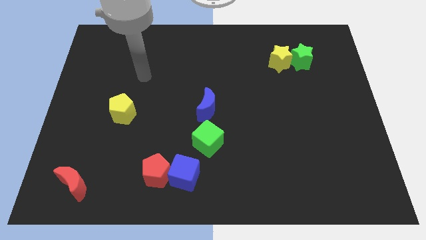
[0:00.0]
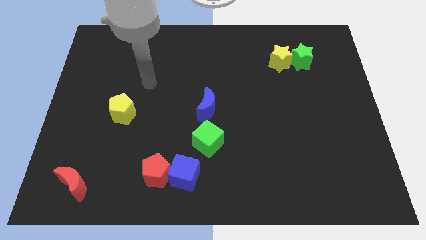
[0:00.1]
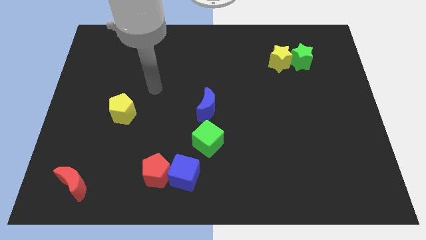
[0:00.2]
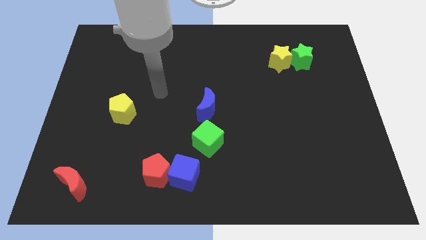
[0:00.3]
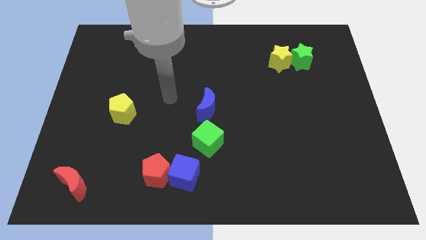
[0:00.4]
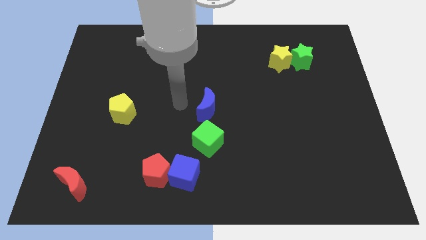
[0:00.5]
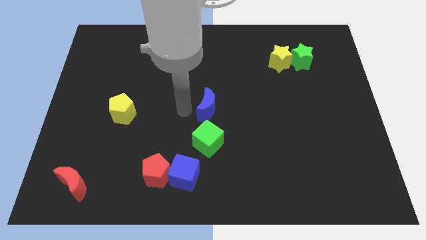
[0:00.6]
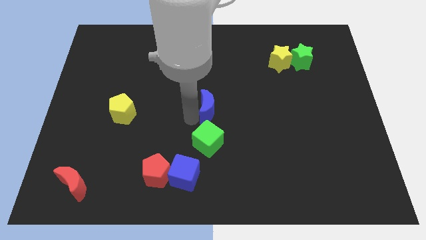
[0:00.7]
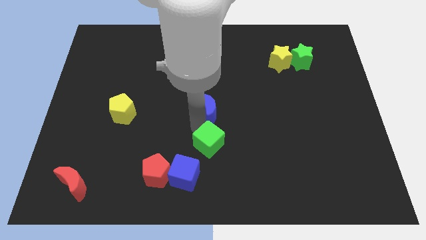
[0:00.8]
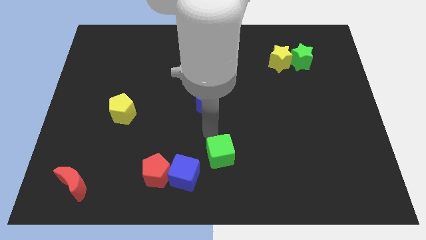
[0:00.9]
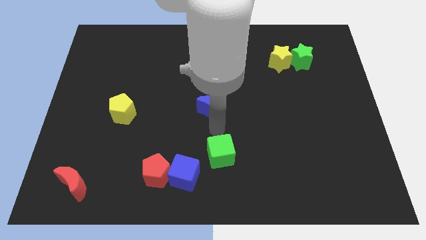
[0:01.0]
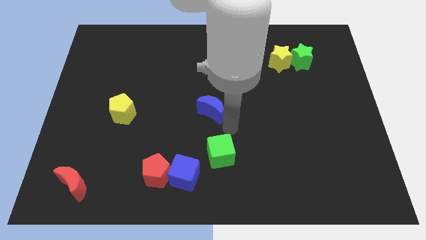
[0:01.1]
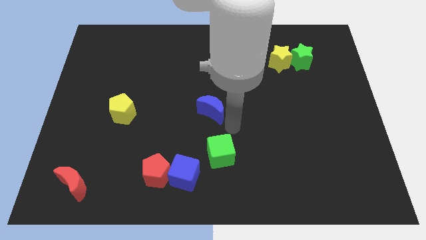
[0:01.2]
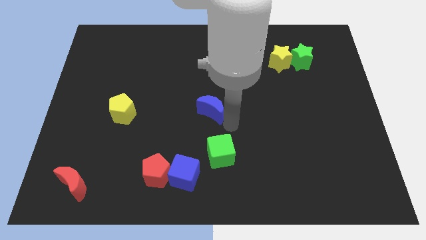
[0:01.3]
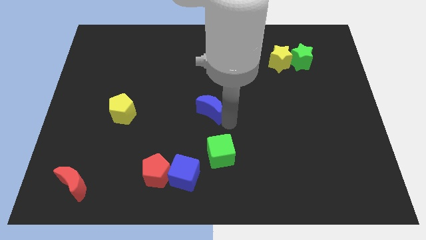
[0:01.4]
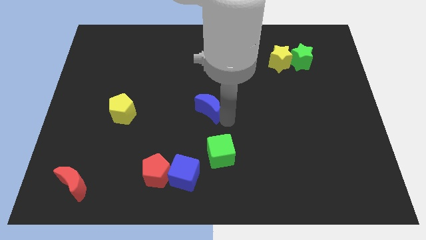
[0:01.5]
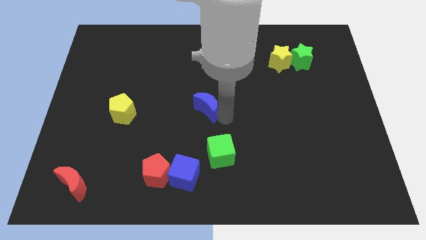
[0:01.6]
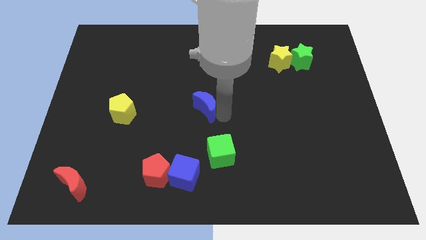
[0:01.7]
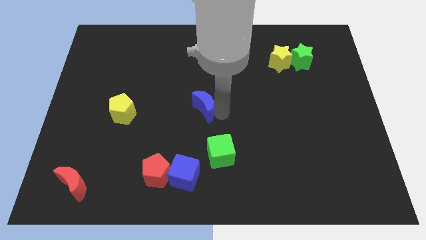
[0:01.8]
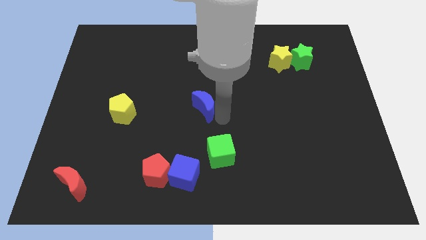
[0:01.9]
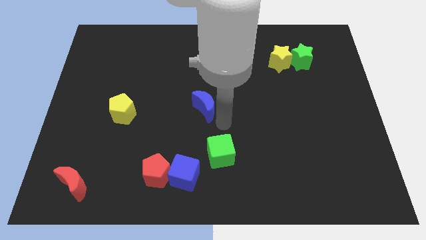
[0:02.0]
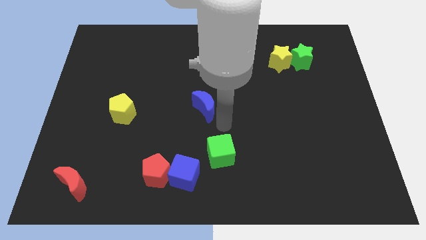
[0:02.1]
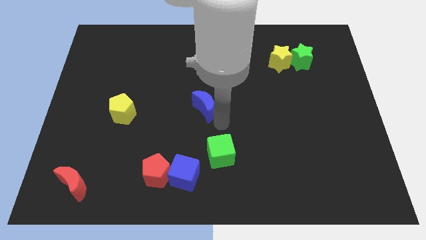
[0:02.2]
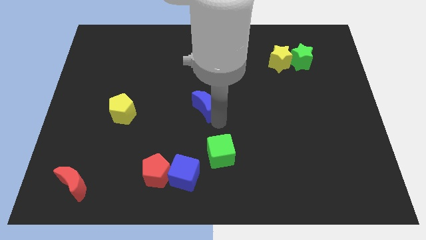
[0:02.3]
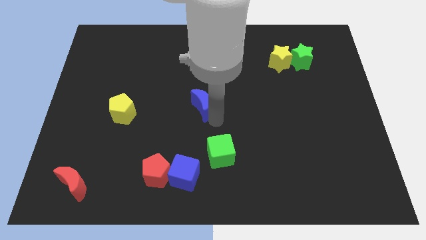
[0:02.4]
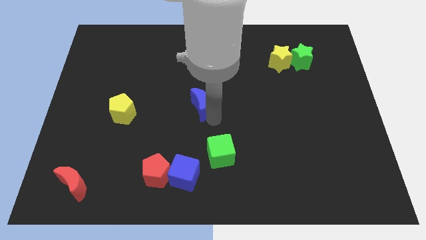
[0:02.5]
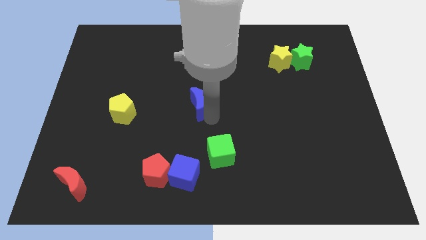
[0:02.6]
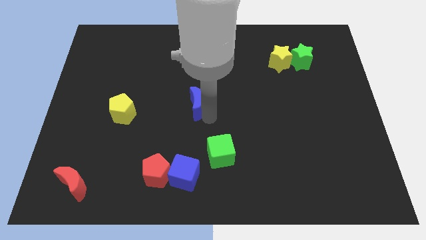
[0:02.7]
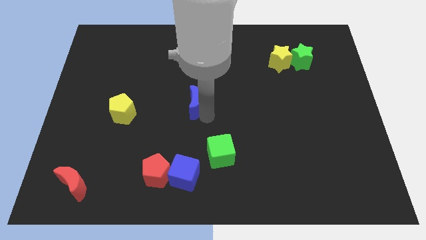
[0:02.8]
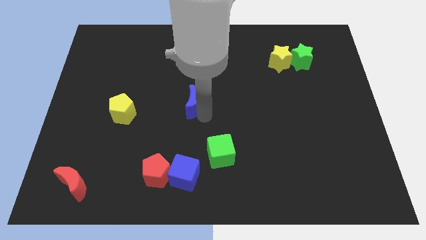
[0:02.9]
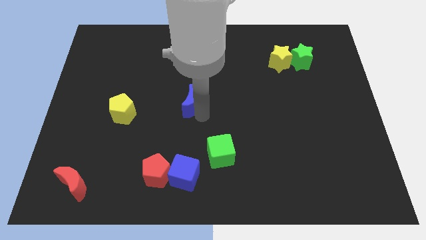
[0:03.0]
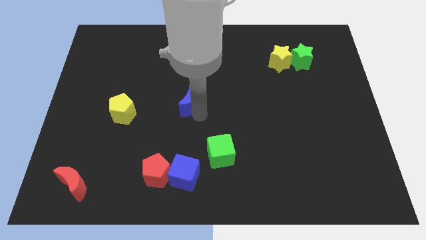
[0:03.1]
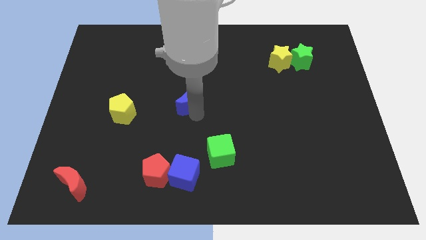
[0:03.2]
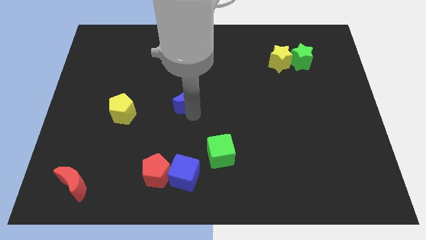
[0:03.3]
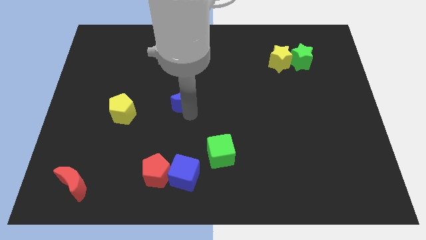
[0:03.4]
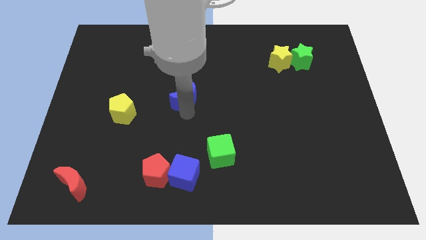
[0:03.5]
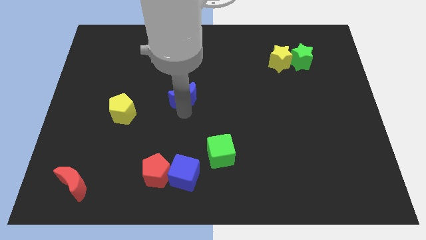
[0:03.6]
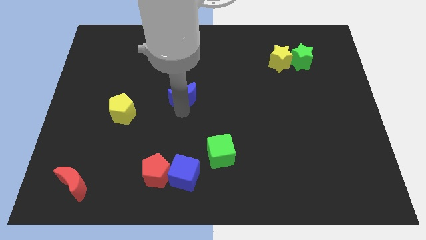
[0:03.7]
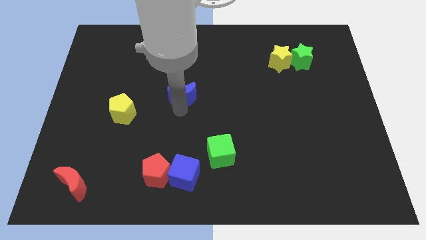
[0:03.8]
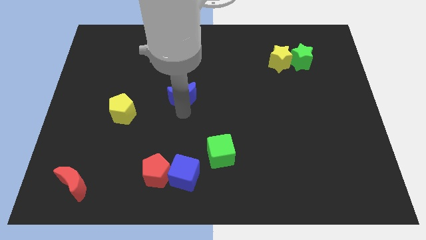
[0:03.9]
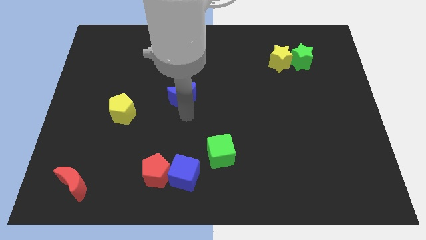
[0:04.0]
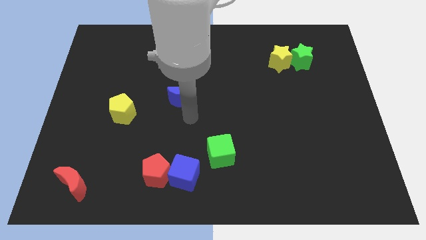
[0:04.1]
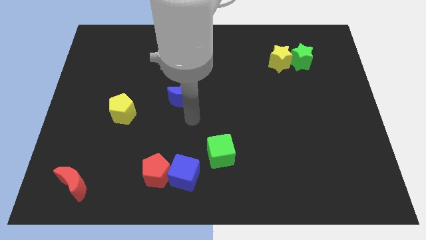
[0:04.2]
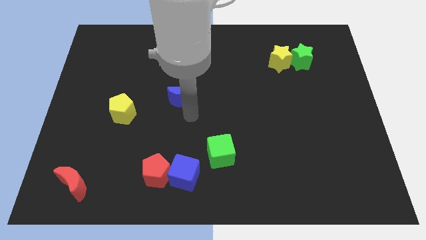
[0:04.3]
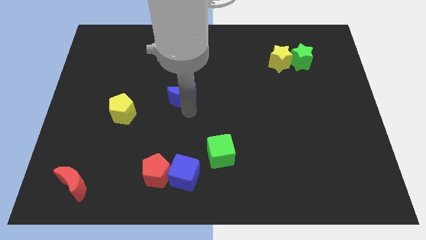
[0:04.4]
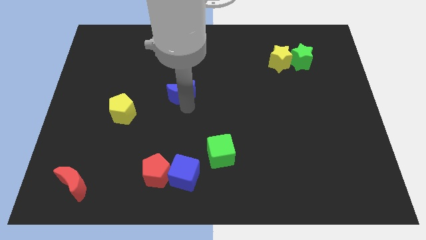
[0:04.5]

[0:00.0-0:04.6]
push the blue moon upwards and then to the left slightly

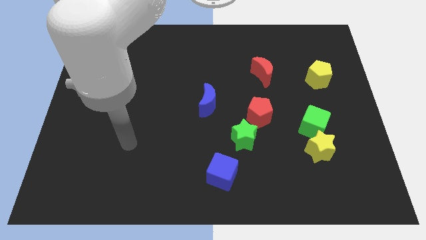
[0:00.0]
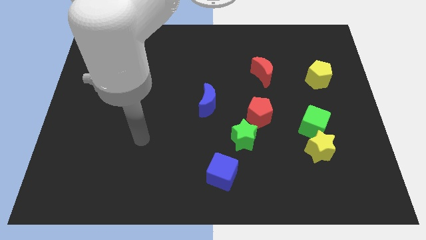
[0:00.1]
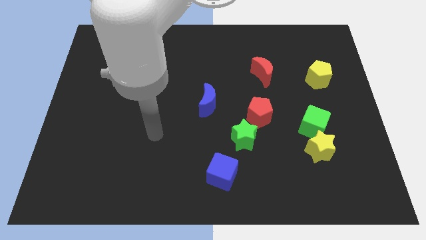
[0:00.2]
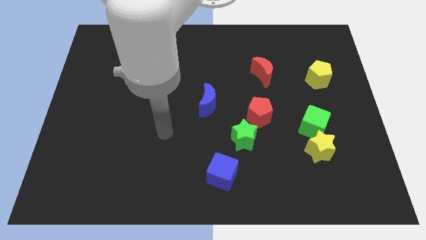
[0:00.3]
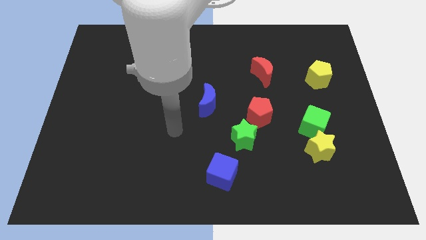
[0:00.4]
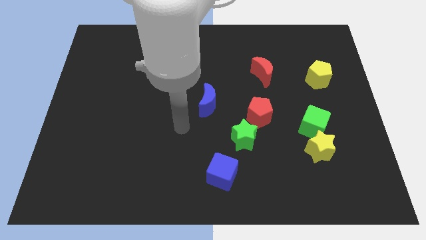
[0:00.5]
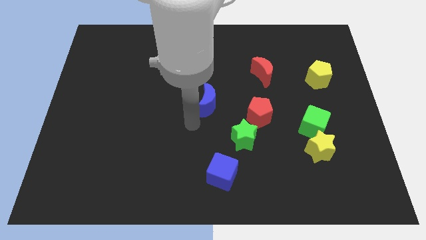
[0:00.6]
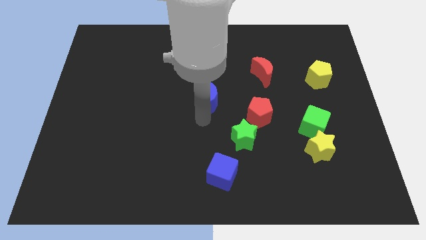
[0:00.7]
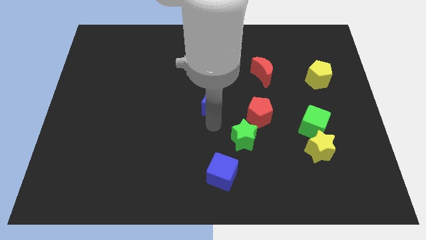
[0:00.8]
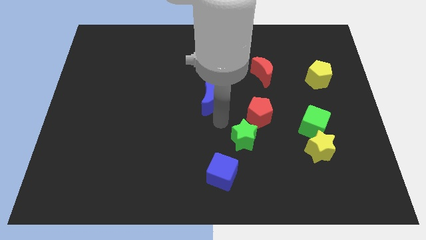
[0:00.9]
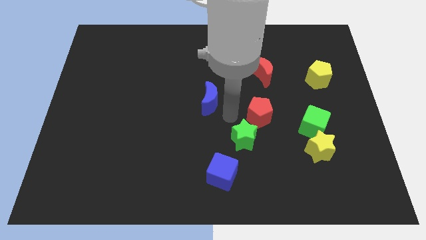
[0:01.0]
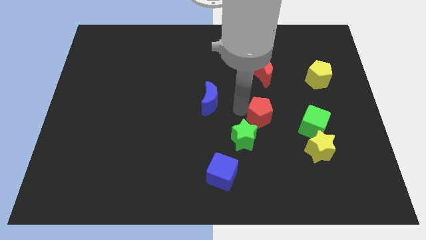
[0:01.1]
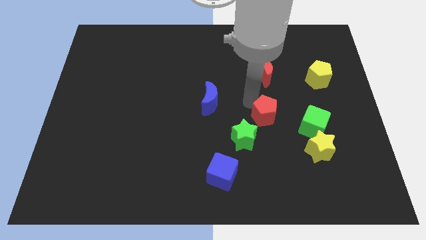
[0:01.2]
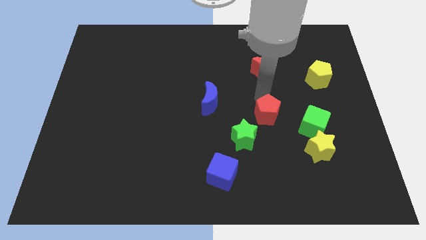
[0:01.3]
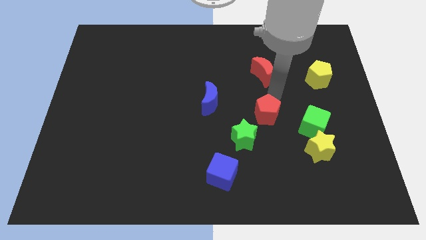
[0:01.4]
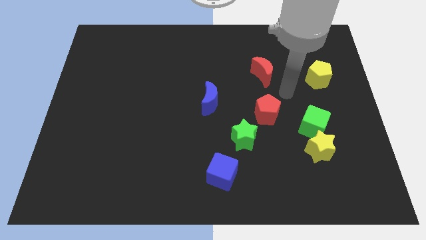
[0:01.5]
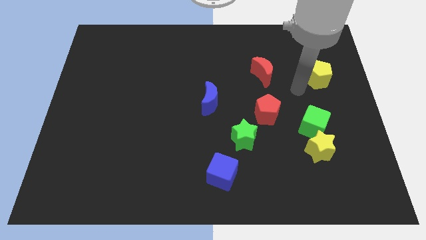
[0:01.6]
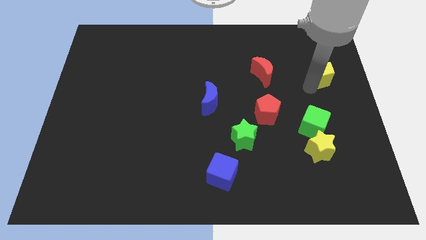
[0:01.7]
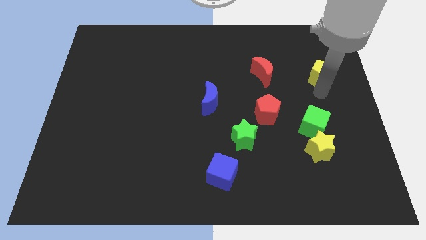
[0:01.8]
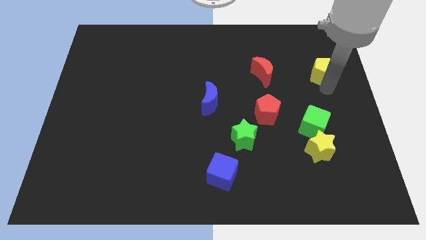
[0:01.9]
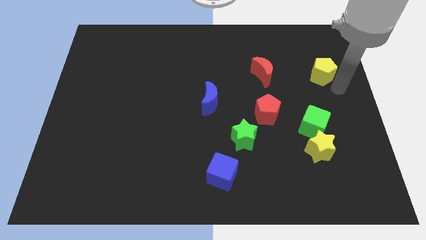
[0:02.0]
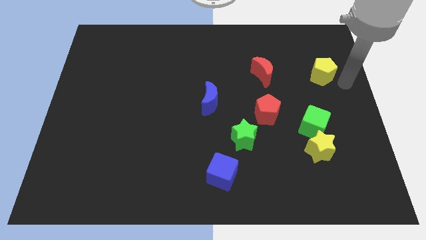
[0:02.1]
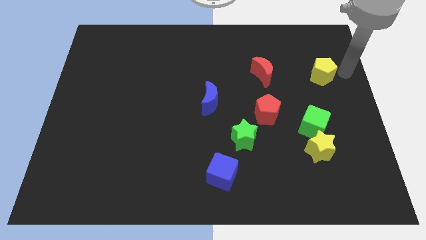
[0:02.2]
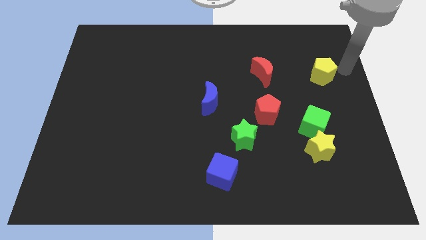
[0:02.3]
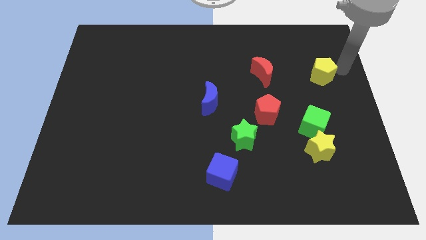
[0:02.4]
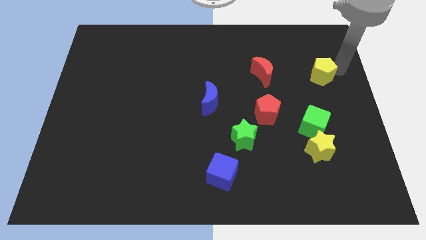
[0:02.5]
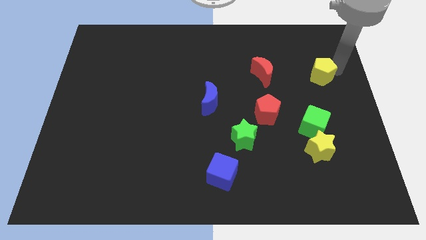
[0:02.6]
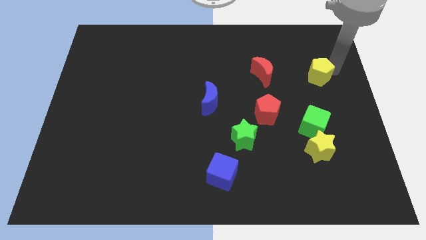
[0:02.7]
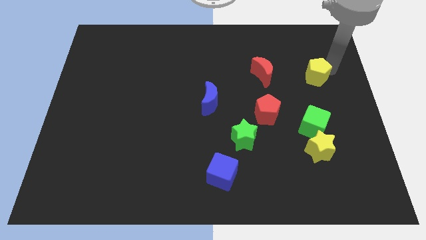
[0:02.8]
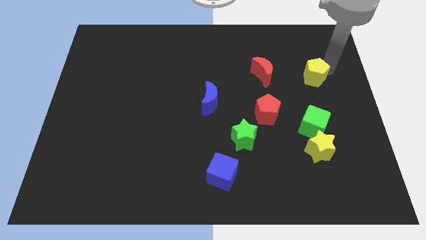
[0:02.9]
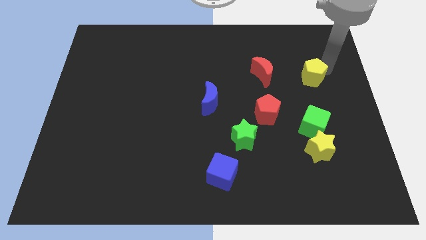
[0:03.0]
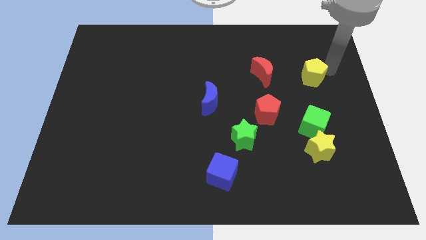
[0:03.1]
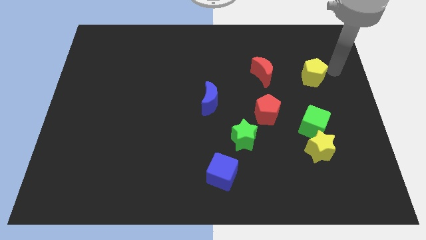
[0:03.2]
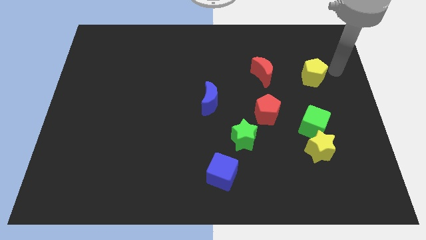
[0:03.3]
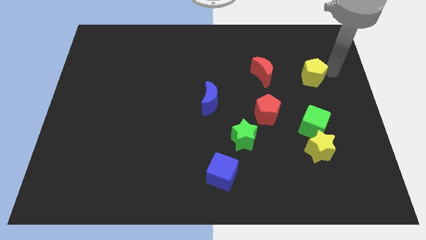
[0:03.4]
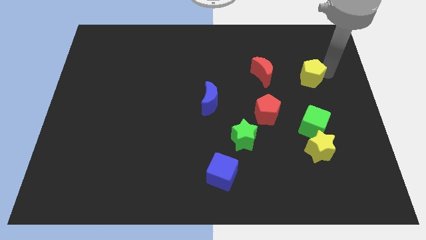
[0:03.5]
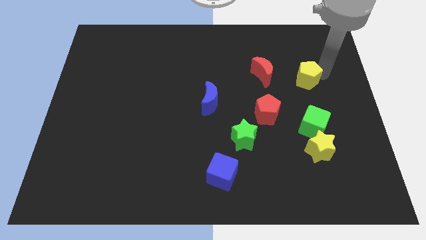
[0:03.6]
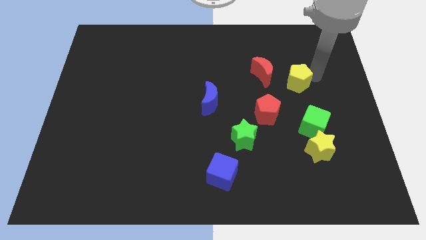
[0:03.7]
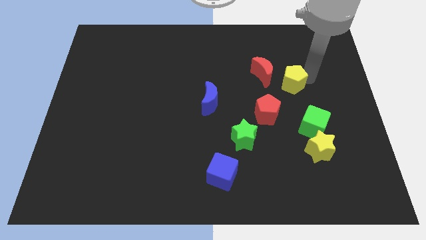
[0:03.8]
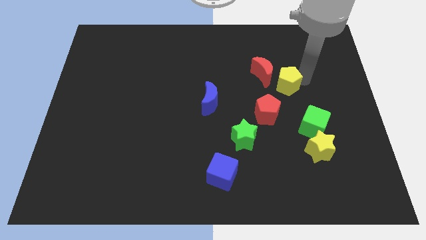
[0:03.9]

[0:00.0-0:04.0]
push the yellow pentagon left a little
